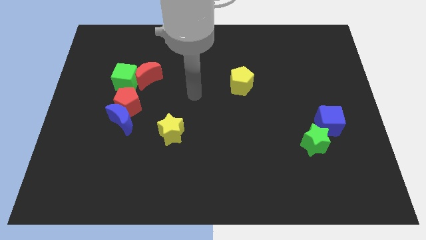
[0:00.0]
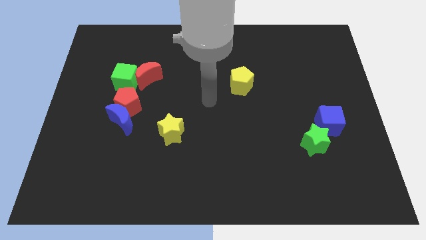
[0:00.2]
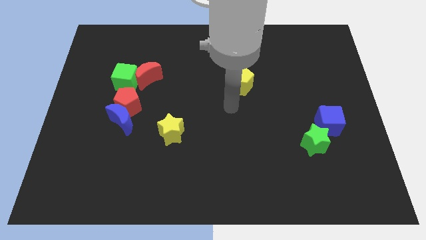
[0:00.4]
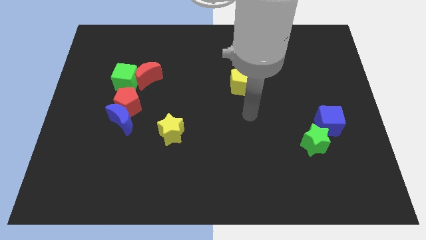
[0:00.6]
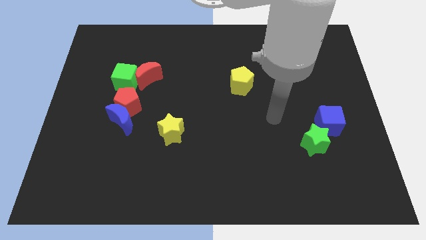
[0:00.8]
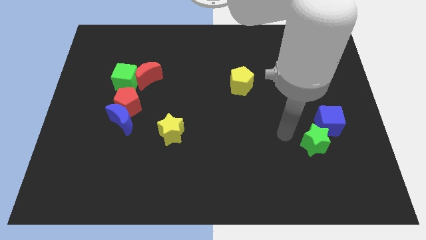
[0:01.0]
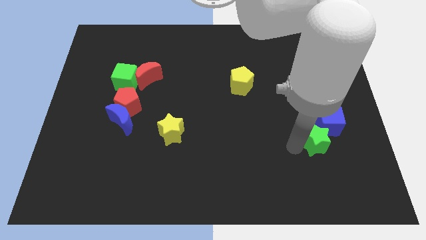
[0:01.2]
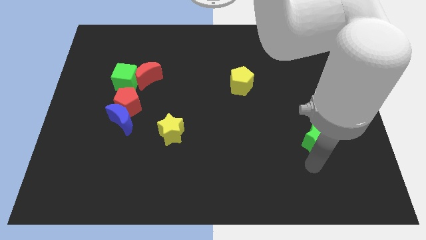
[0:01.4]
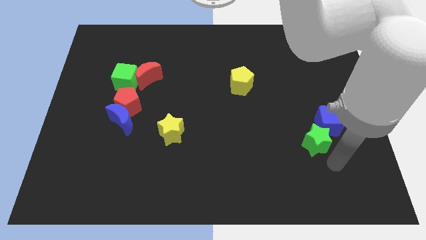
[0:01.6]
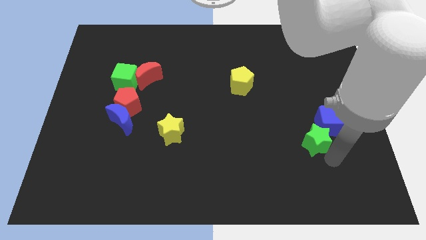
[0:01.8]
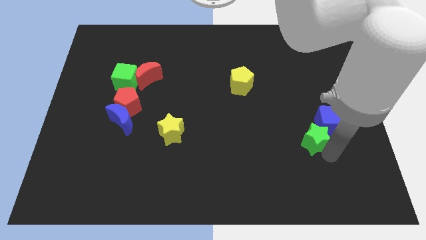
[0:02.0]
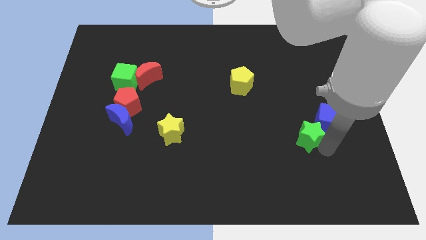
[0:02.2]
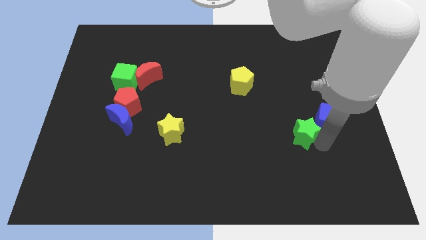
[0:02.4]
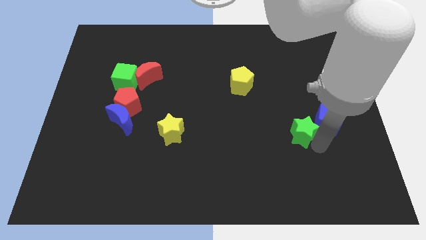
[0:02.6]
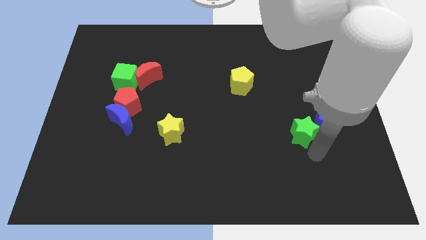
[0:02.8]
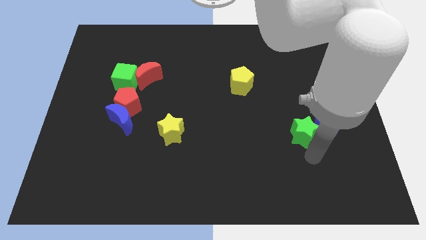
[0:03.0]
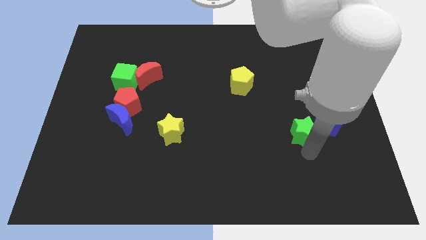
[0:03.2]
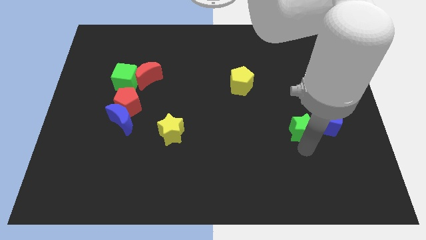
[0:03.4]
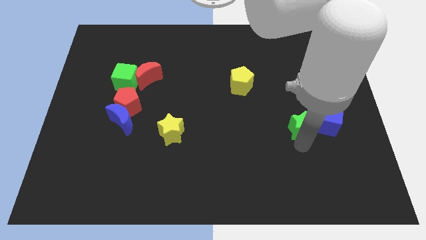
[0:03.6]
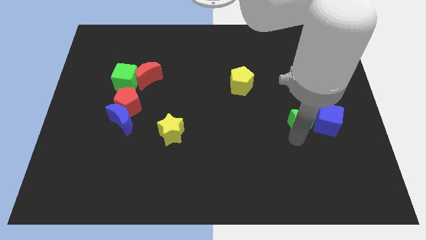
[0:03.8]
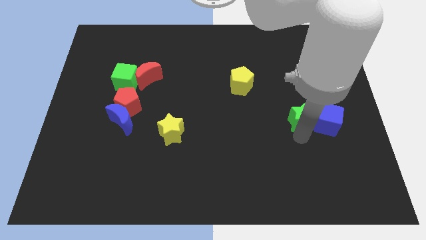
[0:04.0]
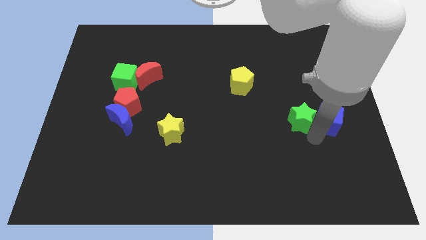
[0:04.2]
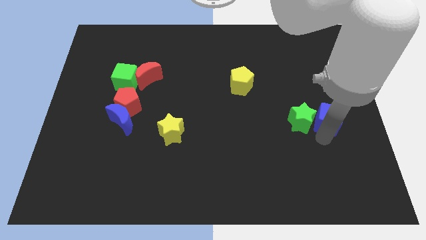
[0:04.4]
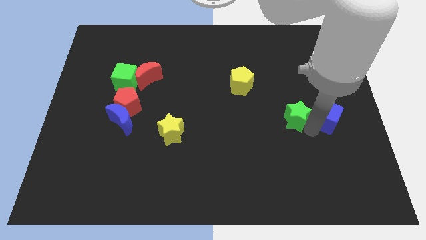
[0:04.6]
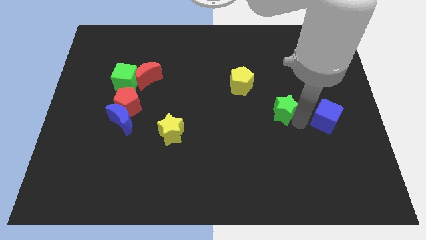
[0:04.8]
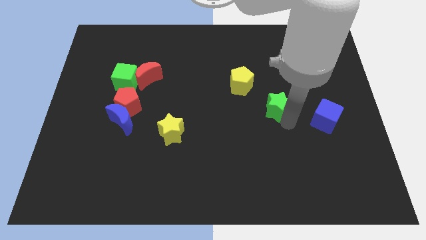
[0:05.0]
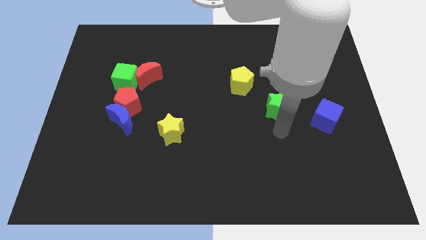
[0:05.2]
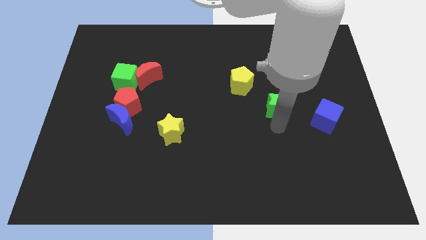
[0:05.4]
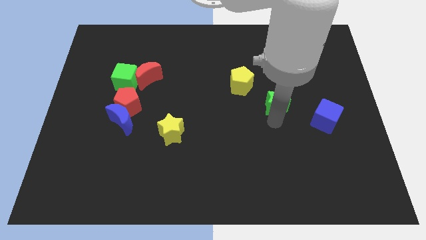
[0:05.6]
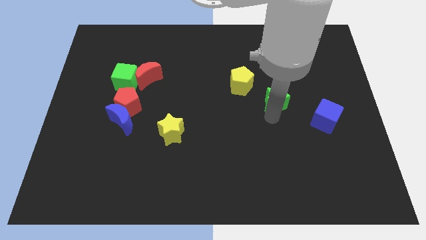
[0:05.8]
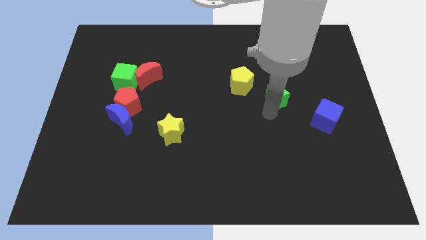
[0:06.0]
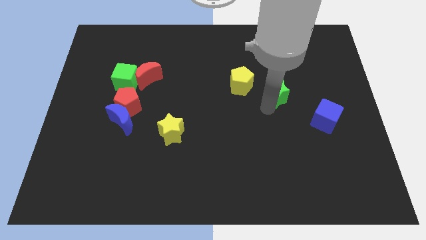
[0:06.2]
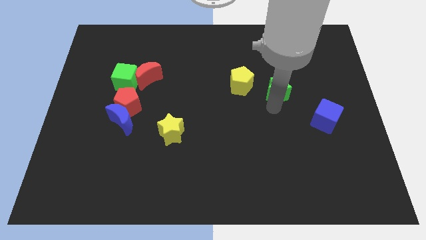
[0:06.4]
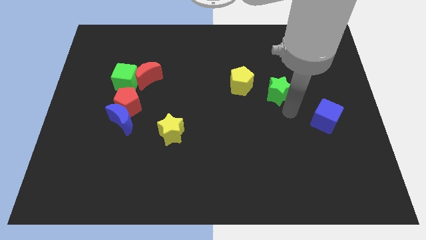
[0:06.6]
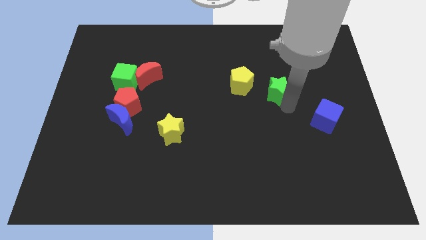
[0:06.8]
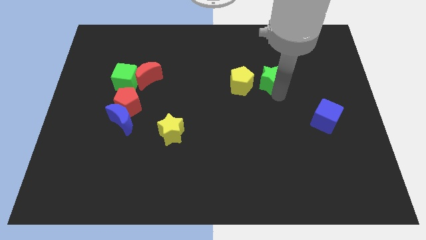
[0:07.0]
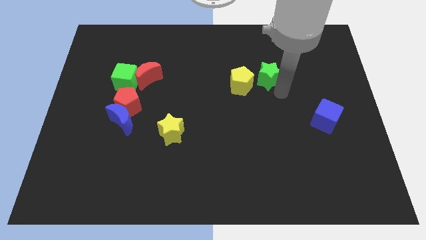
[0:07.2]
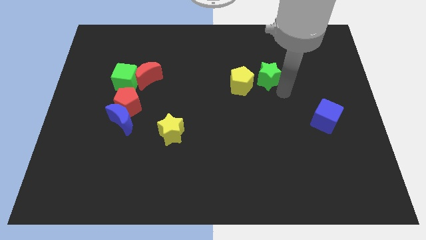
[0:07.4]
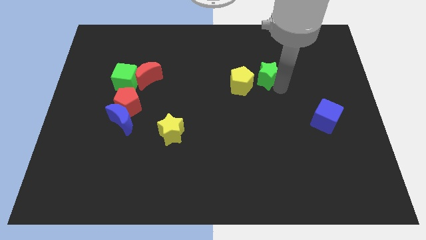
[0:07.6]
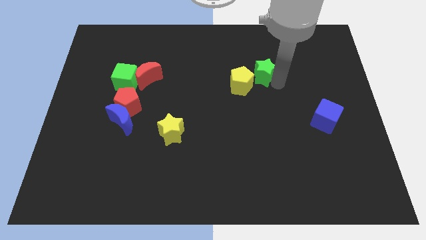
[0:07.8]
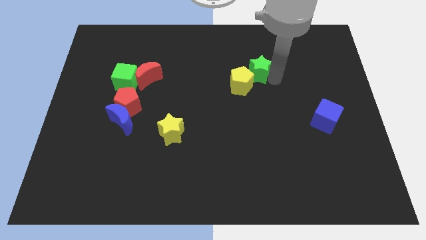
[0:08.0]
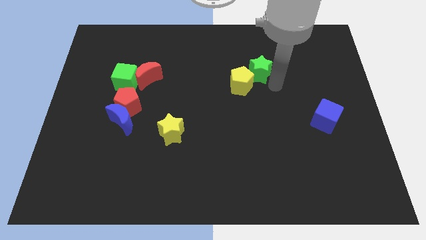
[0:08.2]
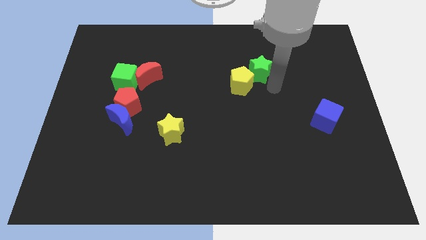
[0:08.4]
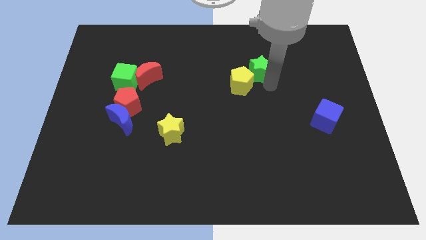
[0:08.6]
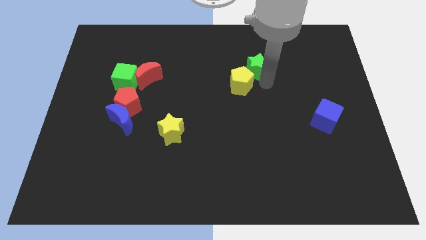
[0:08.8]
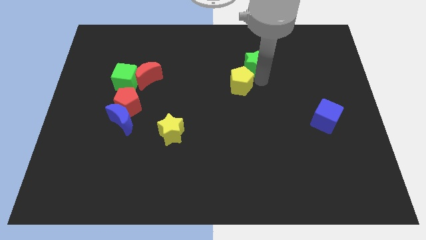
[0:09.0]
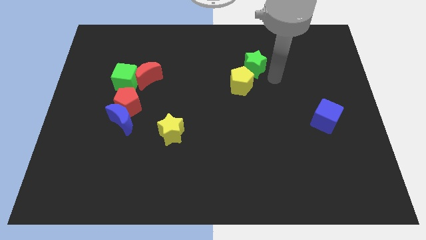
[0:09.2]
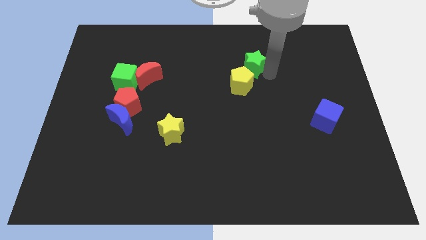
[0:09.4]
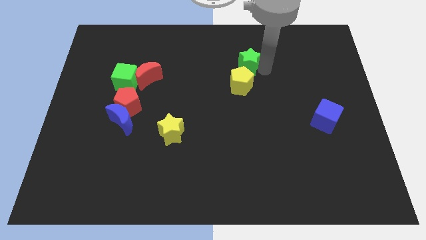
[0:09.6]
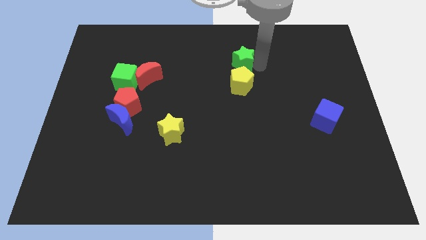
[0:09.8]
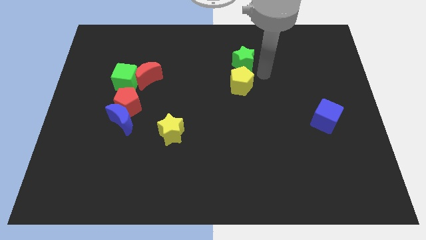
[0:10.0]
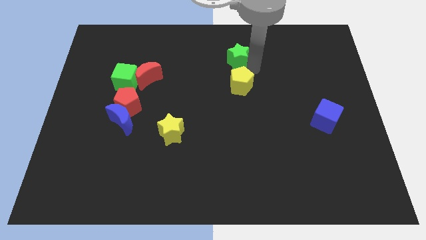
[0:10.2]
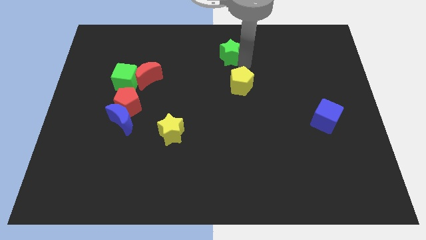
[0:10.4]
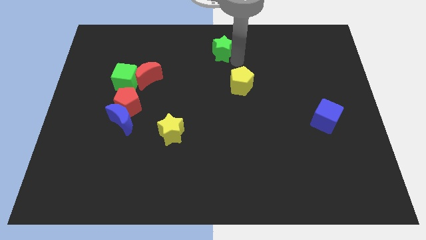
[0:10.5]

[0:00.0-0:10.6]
push the green star to the towards your base

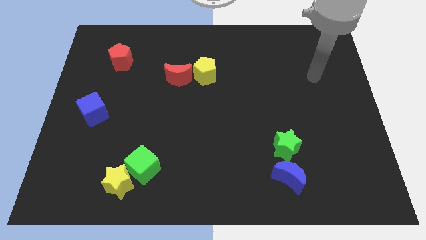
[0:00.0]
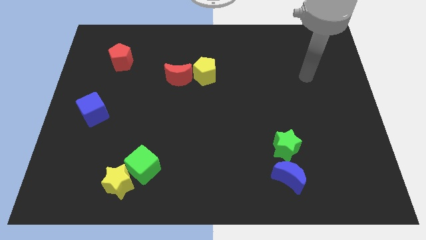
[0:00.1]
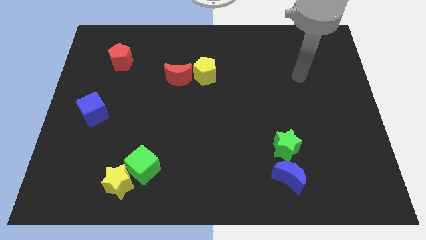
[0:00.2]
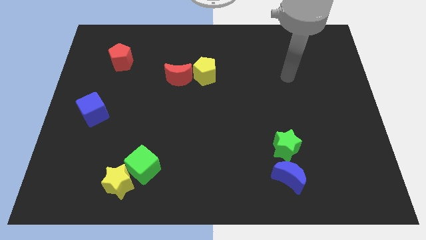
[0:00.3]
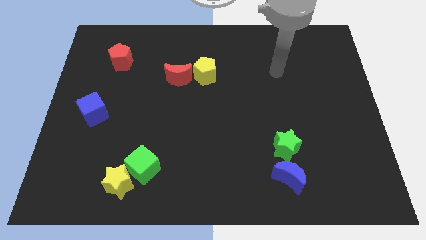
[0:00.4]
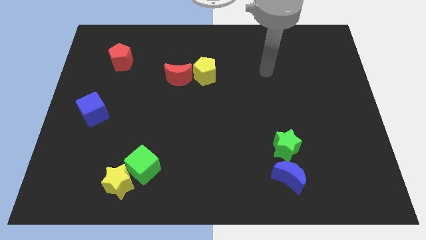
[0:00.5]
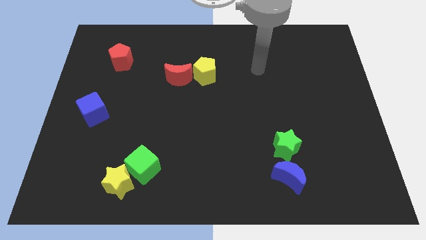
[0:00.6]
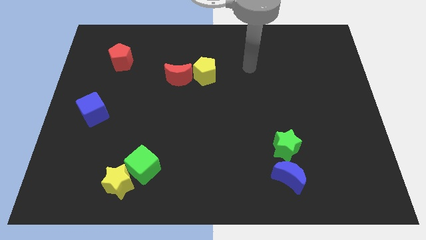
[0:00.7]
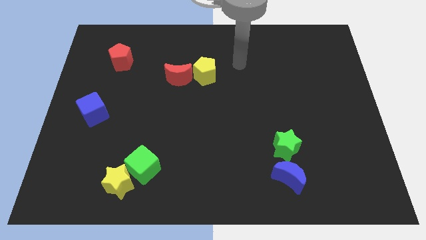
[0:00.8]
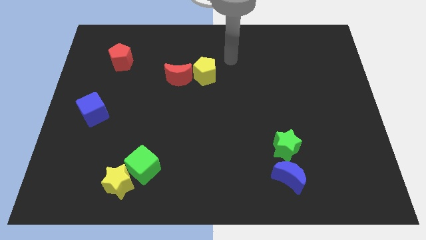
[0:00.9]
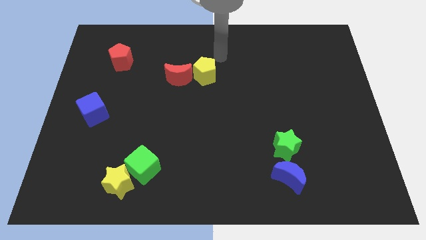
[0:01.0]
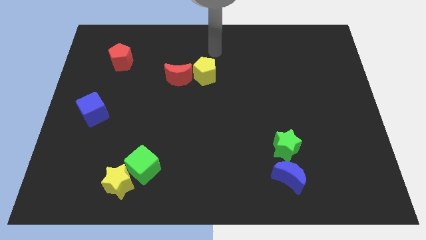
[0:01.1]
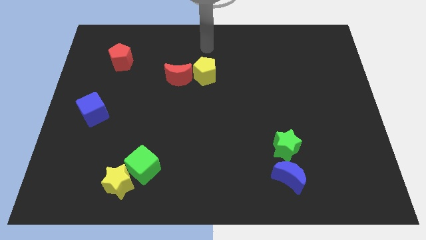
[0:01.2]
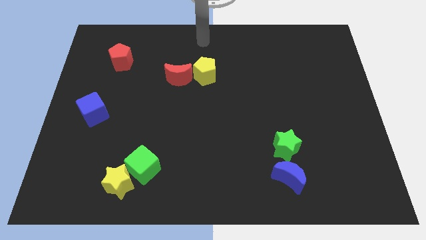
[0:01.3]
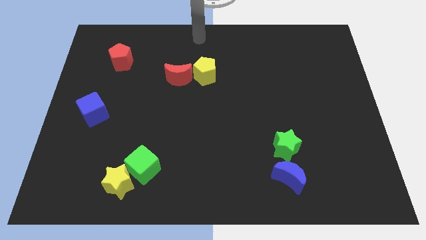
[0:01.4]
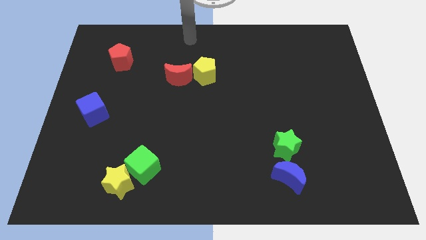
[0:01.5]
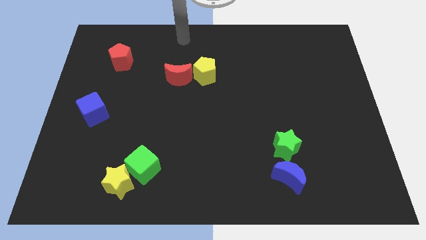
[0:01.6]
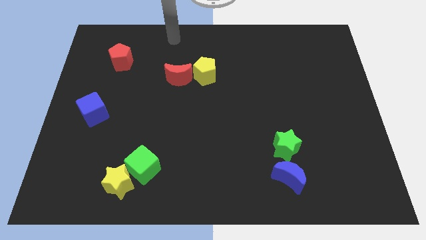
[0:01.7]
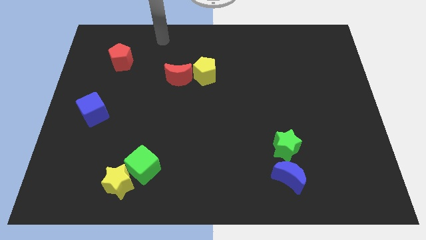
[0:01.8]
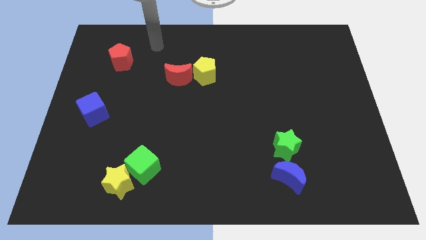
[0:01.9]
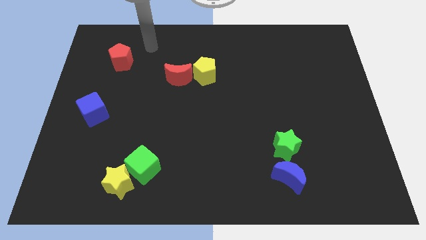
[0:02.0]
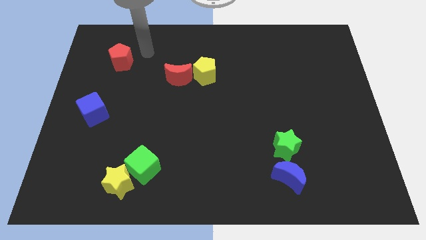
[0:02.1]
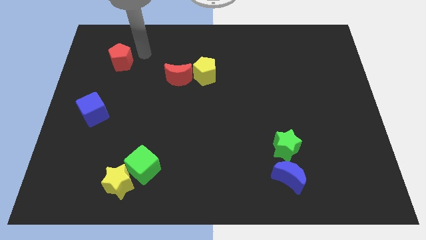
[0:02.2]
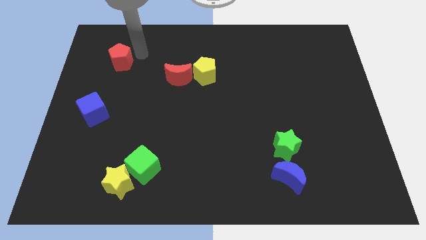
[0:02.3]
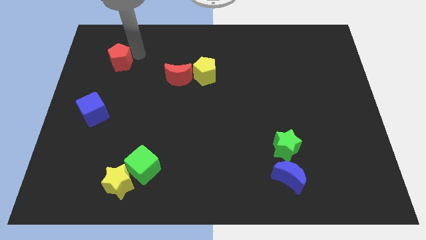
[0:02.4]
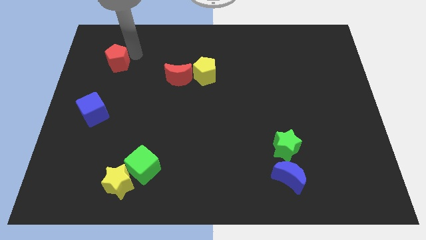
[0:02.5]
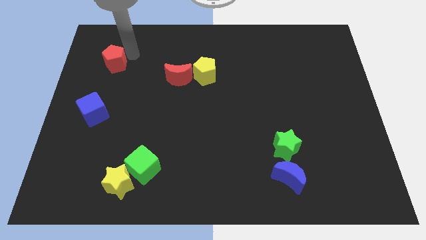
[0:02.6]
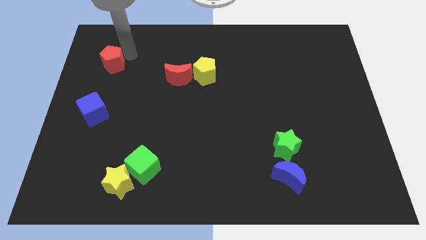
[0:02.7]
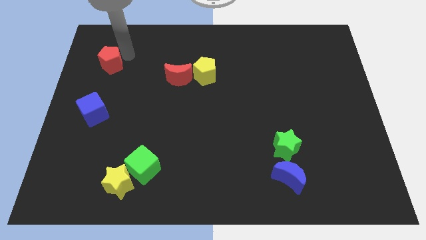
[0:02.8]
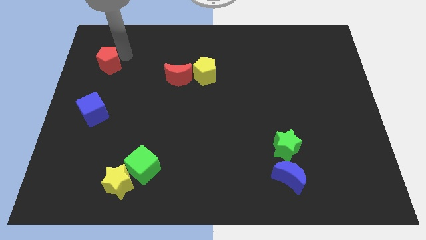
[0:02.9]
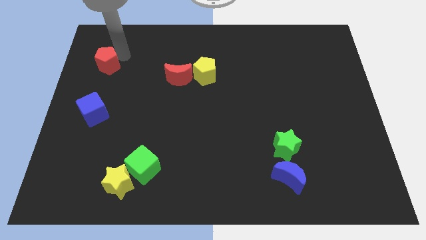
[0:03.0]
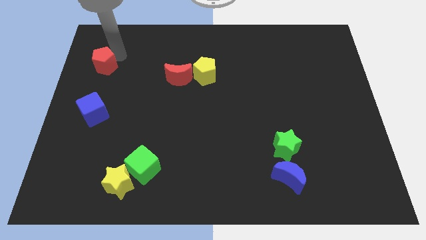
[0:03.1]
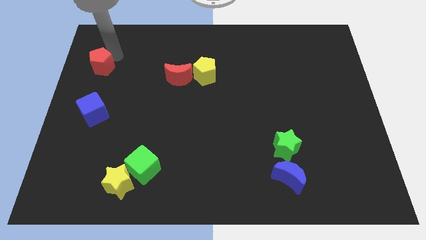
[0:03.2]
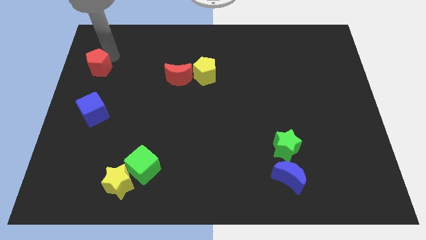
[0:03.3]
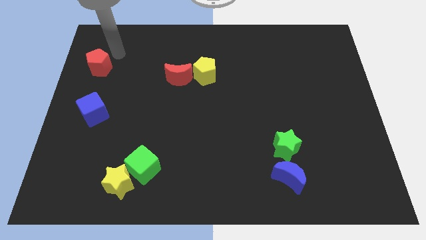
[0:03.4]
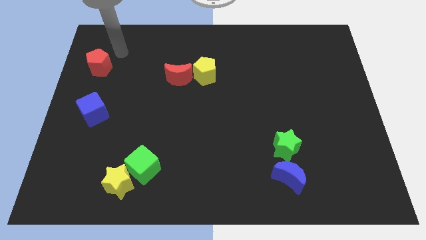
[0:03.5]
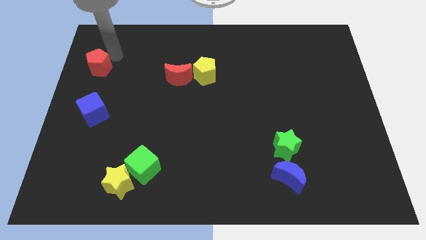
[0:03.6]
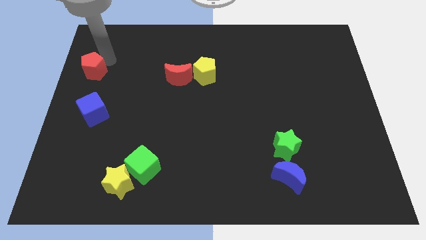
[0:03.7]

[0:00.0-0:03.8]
move the red pentagon to the center left
